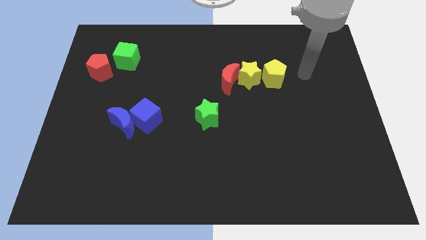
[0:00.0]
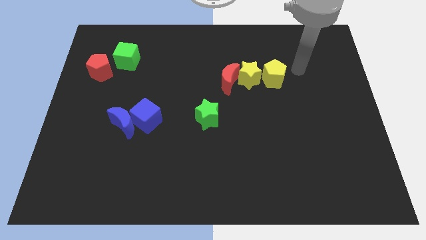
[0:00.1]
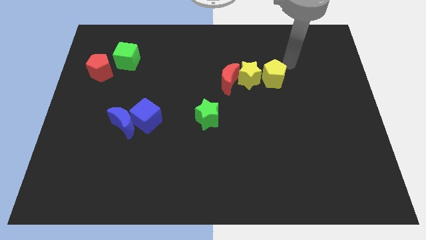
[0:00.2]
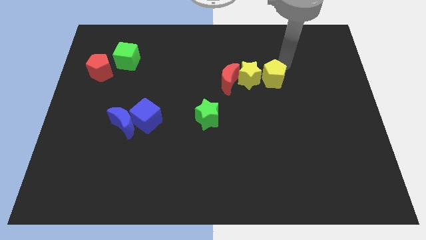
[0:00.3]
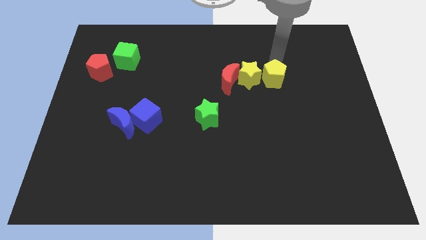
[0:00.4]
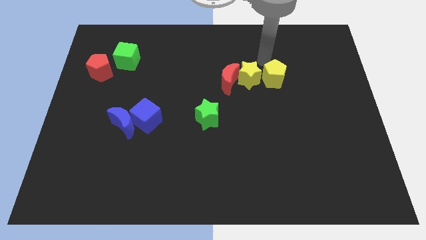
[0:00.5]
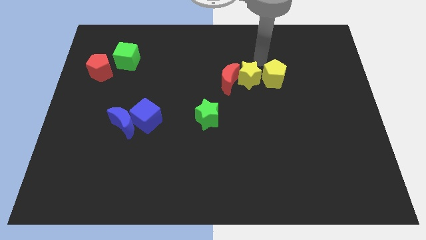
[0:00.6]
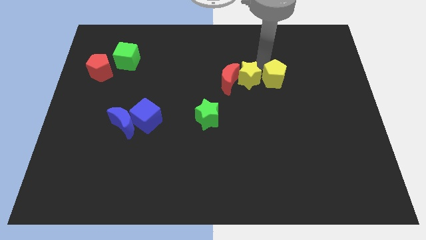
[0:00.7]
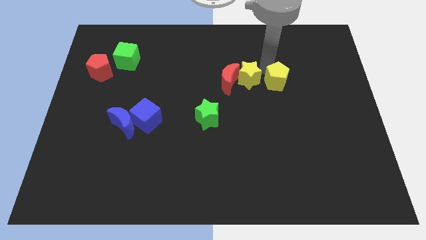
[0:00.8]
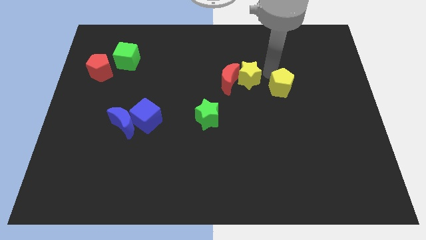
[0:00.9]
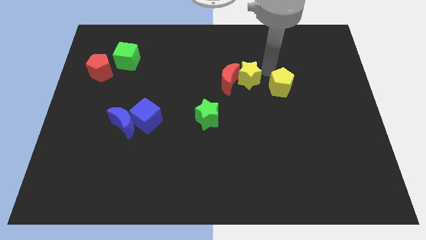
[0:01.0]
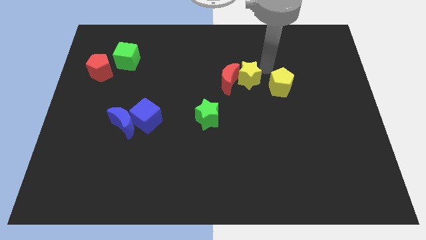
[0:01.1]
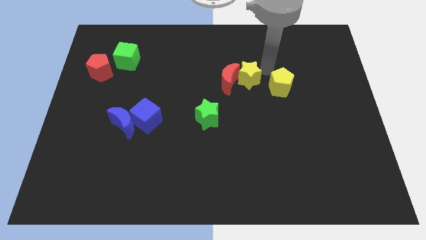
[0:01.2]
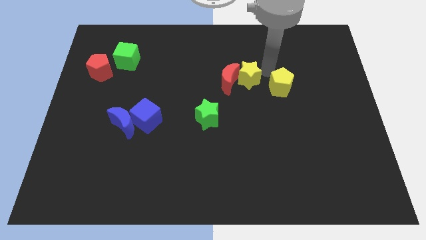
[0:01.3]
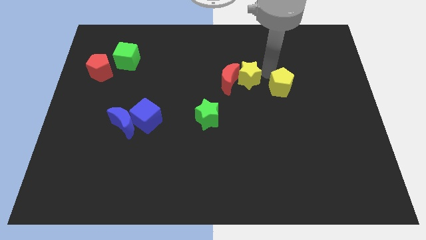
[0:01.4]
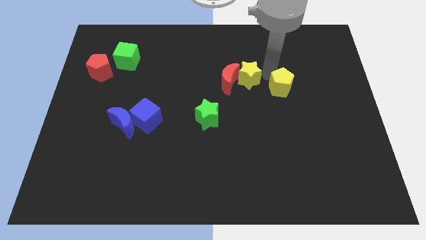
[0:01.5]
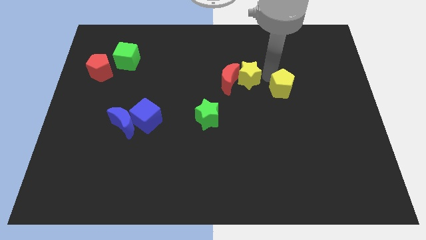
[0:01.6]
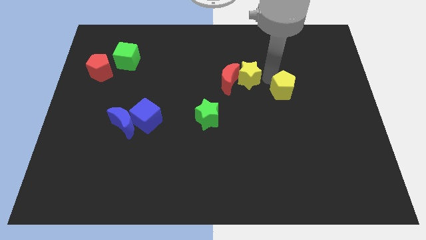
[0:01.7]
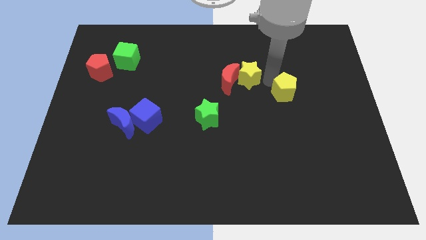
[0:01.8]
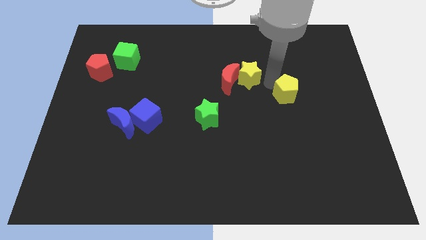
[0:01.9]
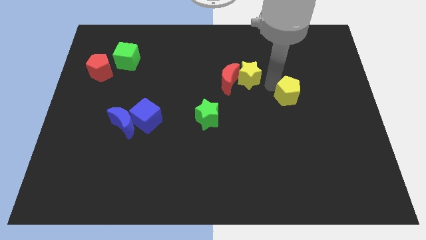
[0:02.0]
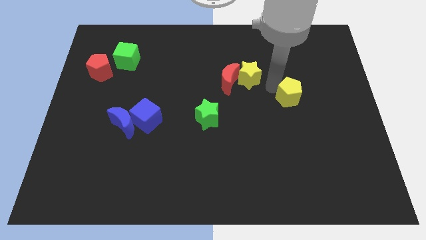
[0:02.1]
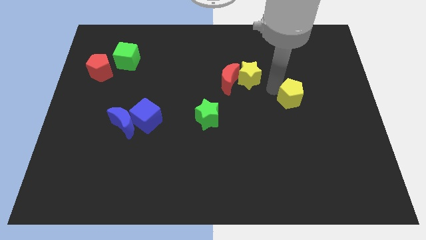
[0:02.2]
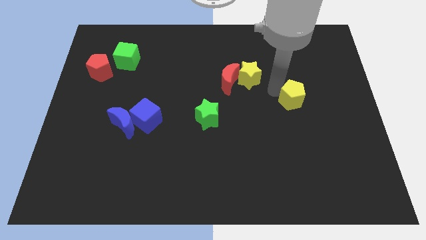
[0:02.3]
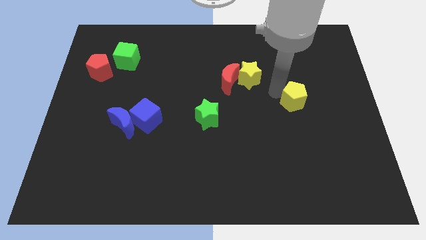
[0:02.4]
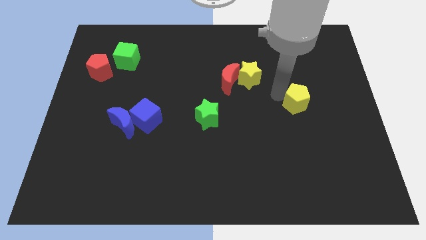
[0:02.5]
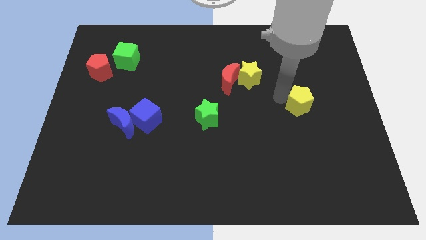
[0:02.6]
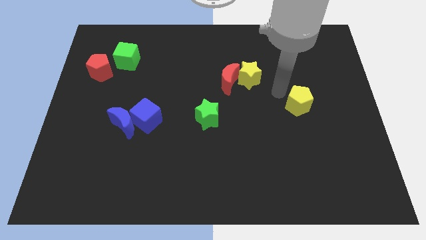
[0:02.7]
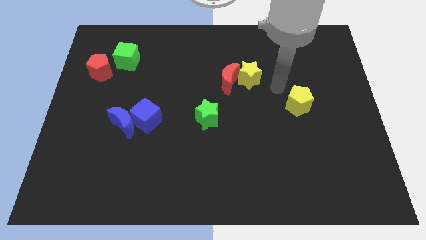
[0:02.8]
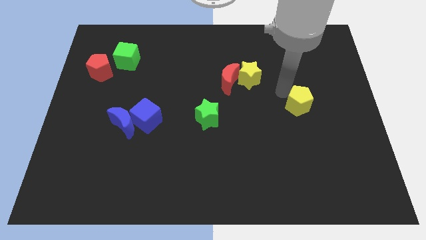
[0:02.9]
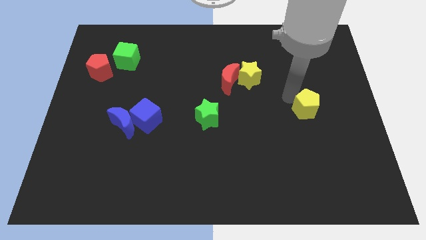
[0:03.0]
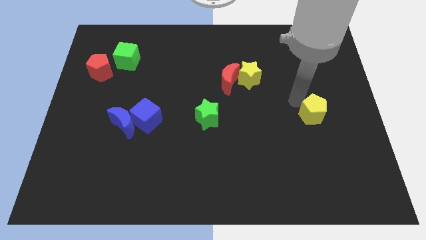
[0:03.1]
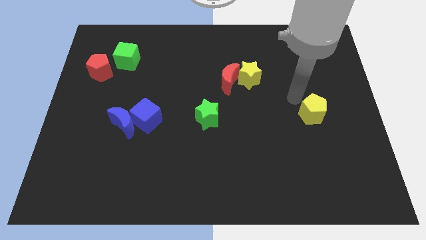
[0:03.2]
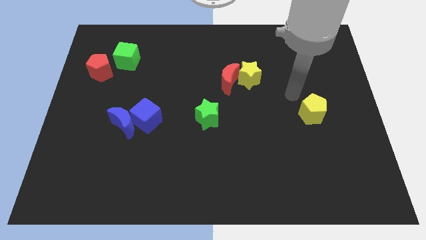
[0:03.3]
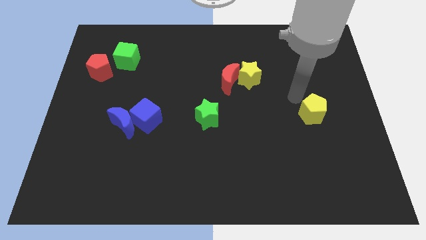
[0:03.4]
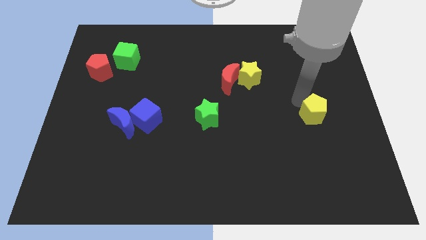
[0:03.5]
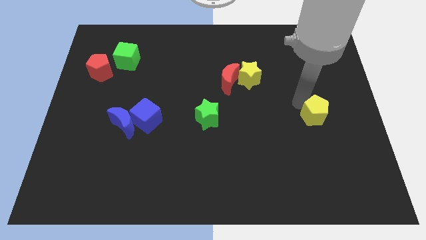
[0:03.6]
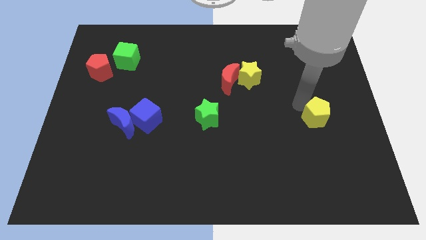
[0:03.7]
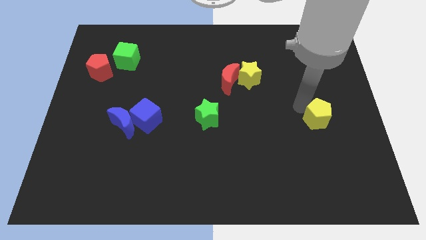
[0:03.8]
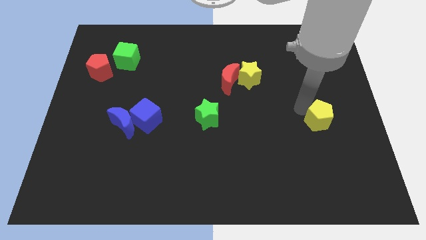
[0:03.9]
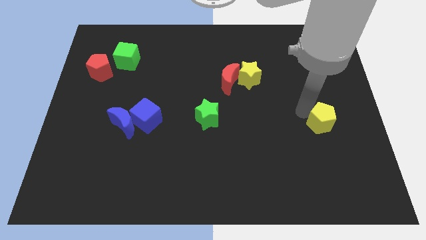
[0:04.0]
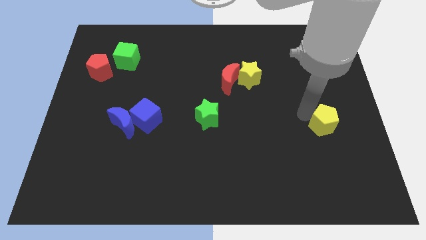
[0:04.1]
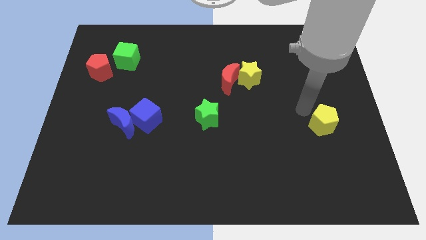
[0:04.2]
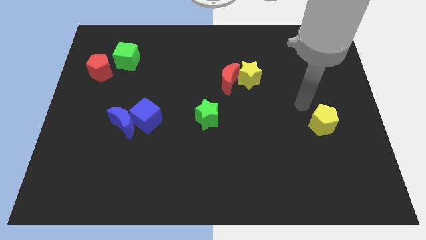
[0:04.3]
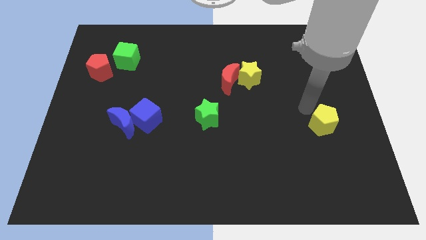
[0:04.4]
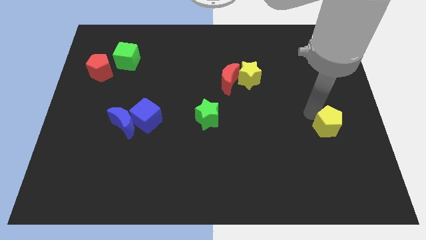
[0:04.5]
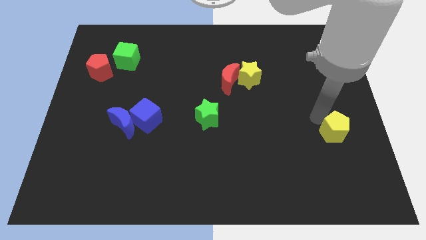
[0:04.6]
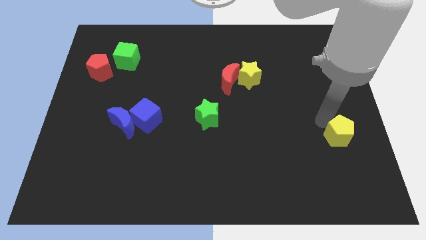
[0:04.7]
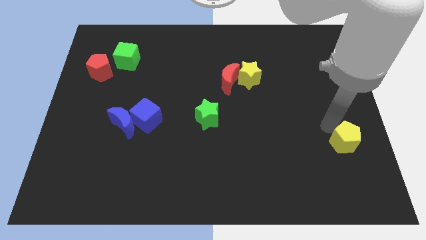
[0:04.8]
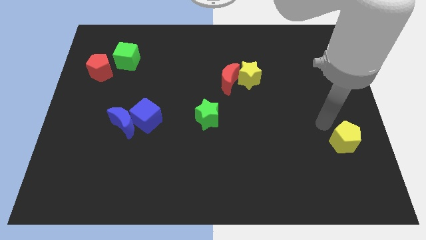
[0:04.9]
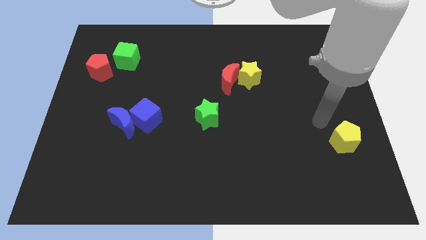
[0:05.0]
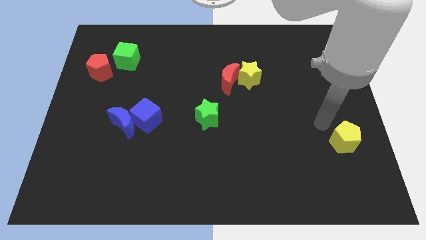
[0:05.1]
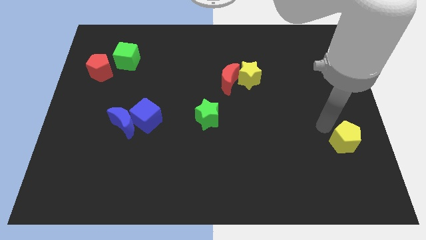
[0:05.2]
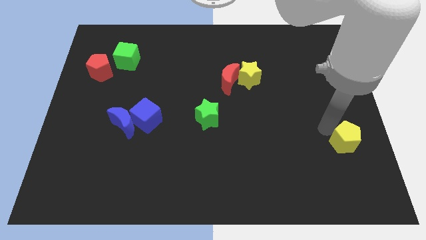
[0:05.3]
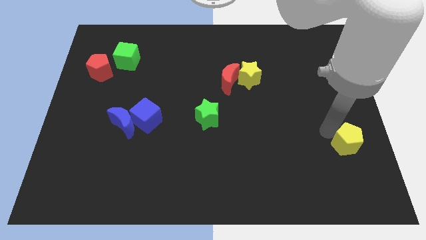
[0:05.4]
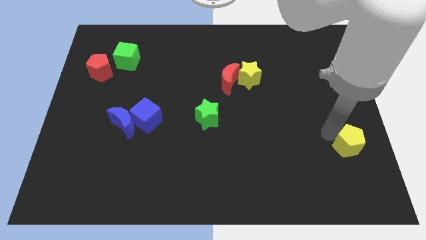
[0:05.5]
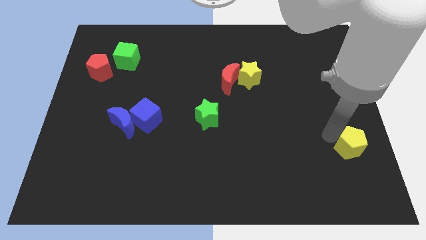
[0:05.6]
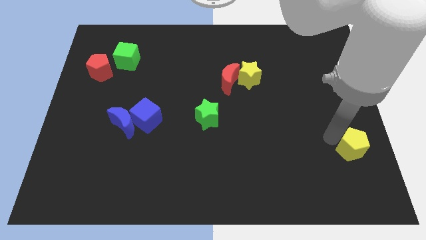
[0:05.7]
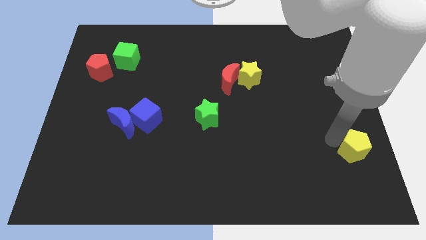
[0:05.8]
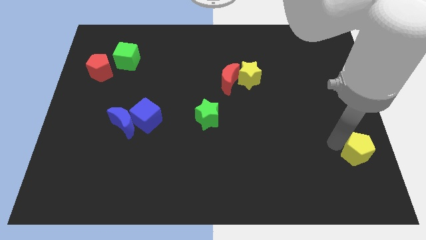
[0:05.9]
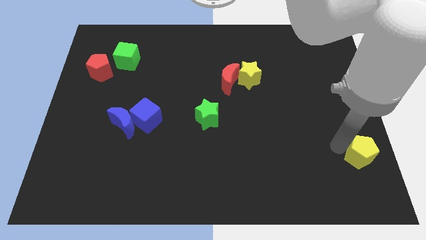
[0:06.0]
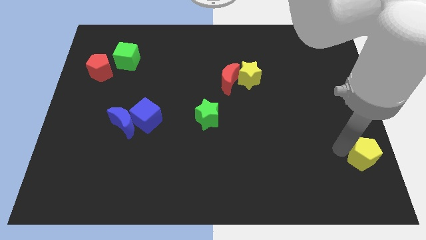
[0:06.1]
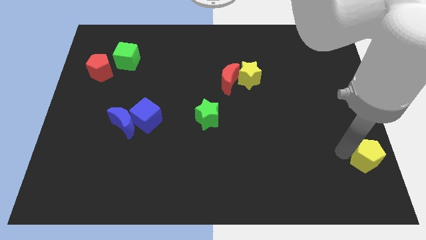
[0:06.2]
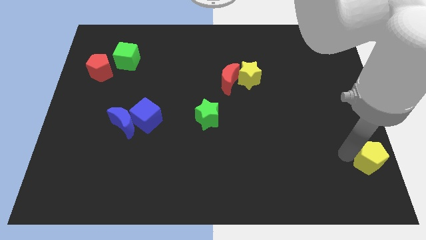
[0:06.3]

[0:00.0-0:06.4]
put the yellow pentagon to the bottom right of the board

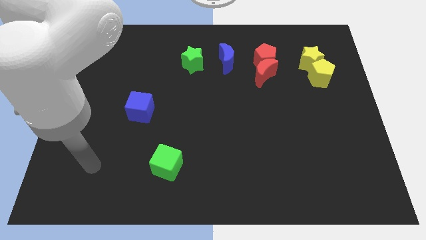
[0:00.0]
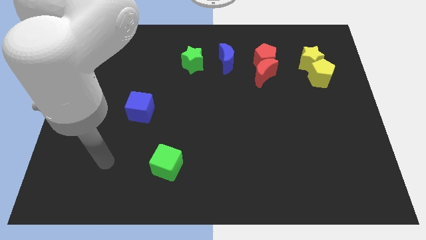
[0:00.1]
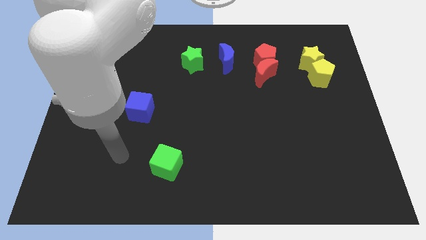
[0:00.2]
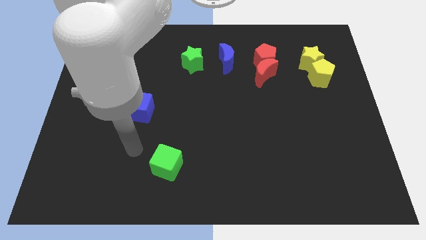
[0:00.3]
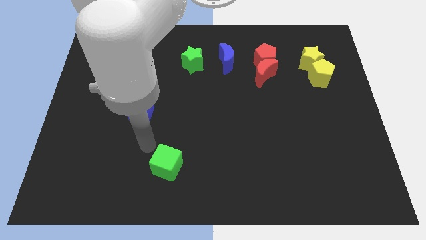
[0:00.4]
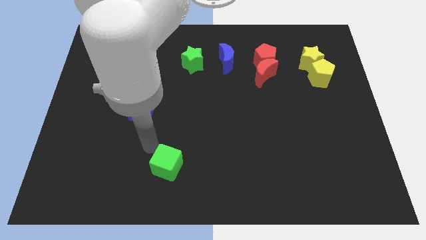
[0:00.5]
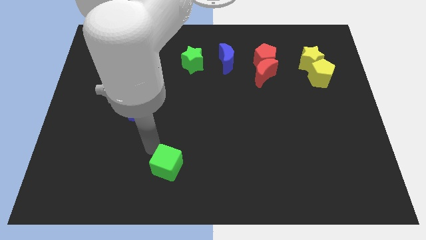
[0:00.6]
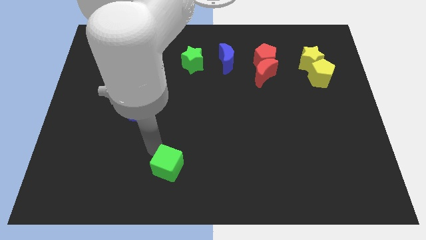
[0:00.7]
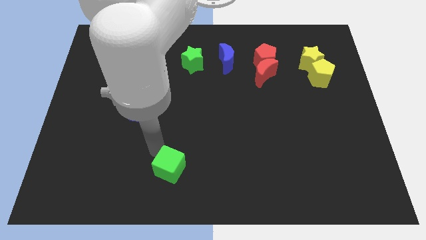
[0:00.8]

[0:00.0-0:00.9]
put the green cube to the bottom side
